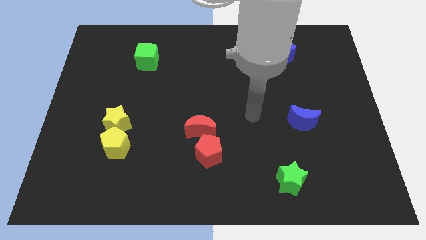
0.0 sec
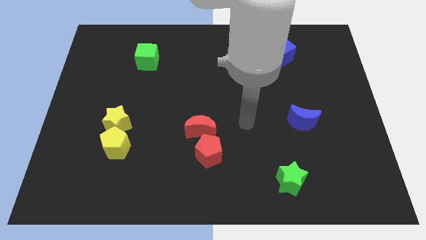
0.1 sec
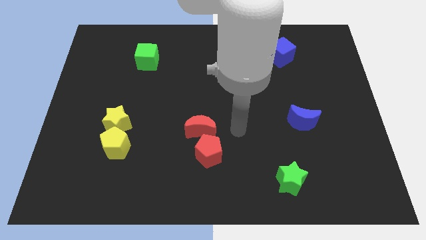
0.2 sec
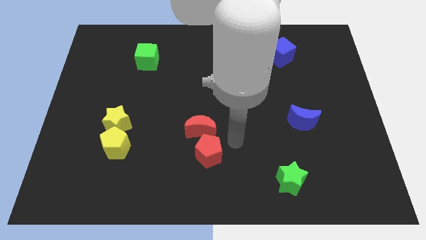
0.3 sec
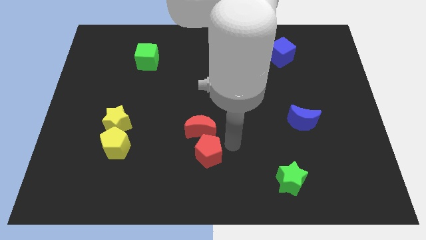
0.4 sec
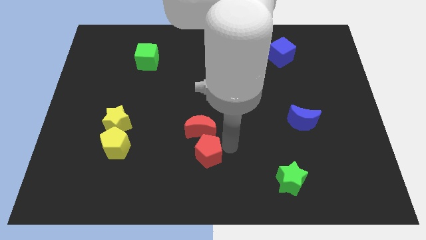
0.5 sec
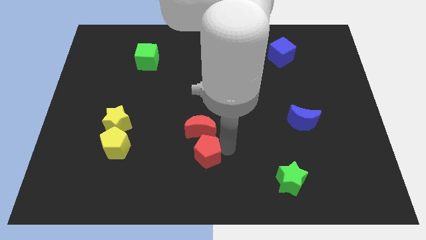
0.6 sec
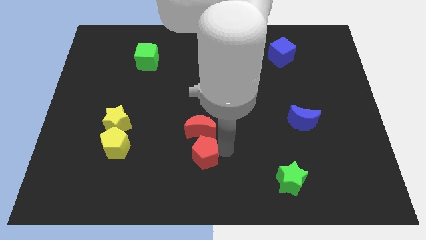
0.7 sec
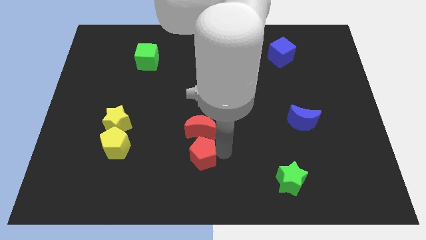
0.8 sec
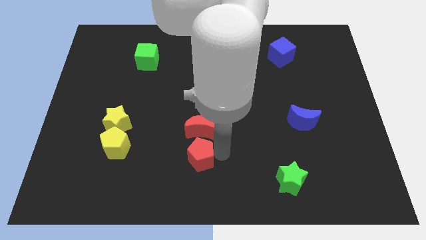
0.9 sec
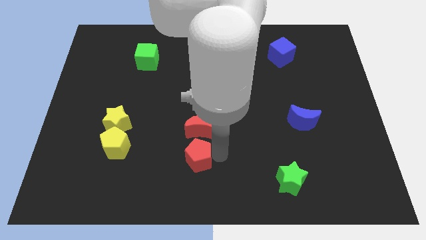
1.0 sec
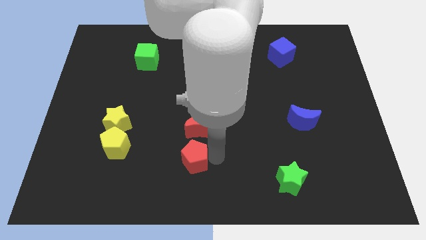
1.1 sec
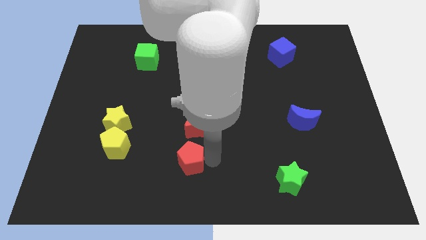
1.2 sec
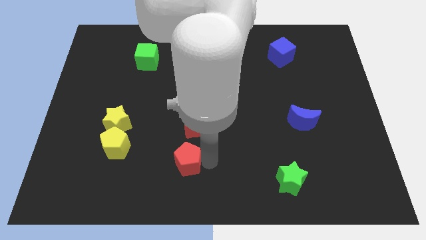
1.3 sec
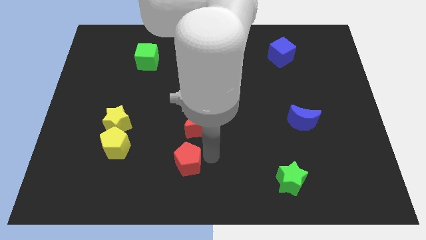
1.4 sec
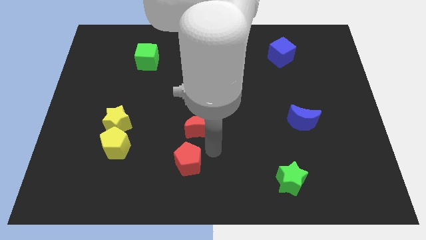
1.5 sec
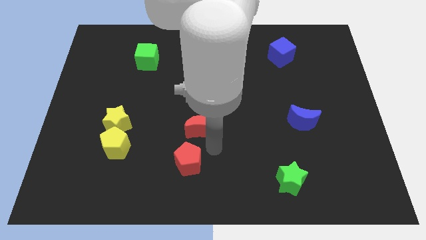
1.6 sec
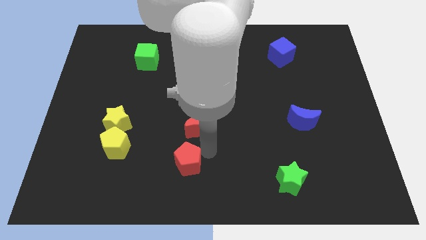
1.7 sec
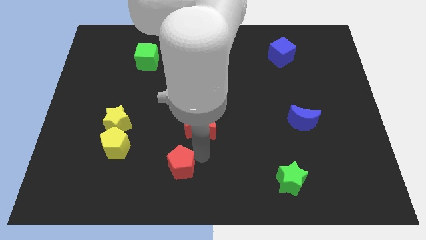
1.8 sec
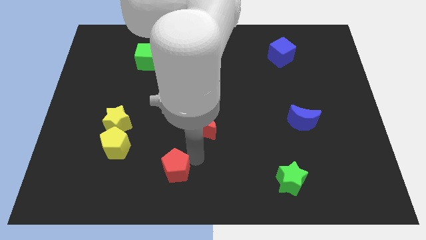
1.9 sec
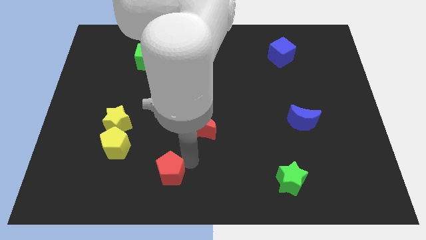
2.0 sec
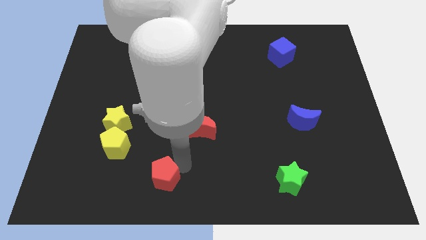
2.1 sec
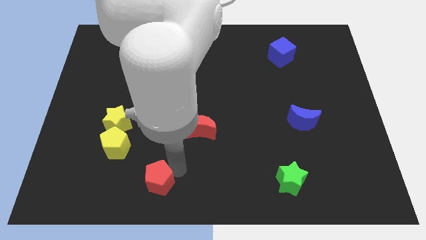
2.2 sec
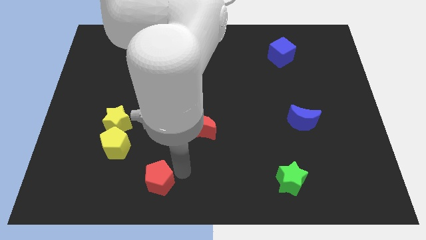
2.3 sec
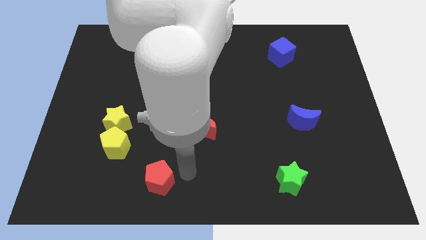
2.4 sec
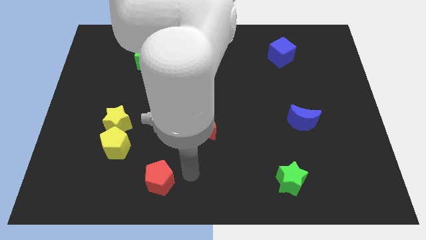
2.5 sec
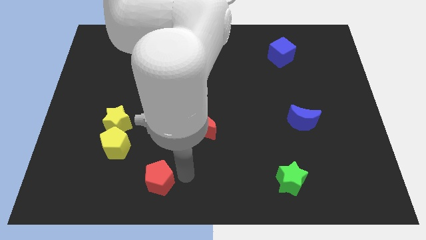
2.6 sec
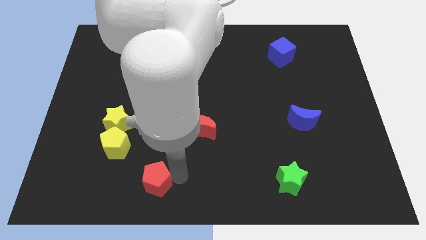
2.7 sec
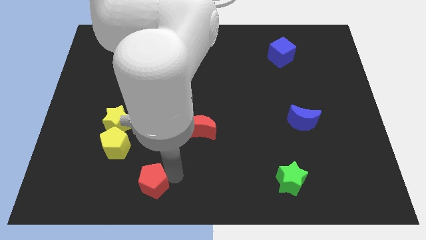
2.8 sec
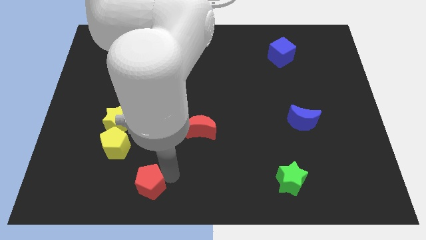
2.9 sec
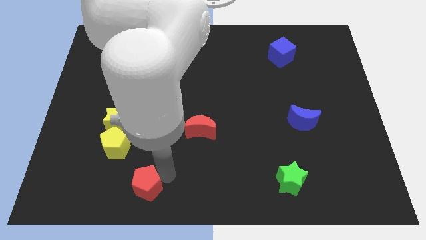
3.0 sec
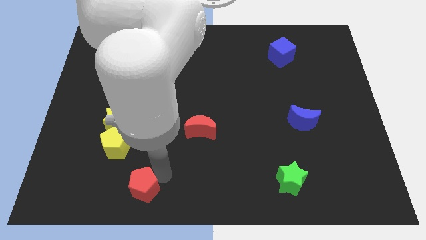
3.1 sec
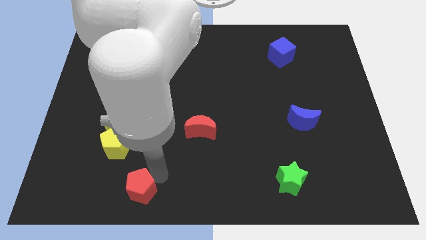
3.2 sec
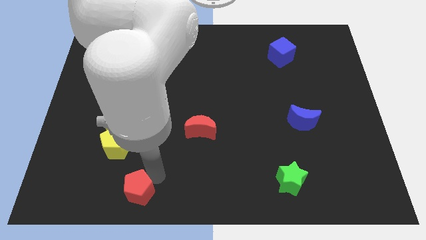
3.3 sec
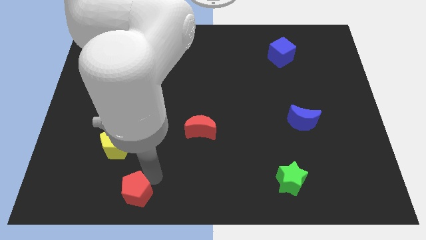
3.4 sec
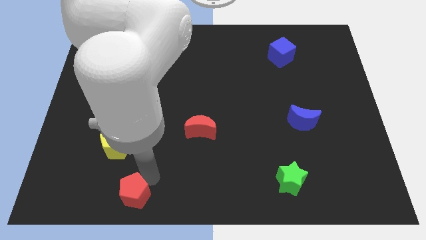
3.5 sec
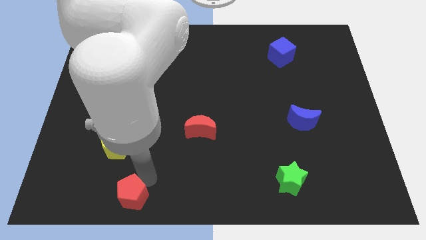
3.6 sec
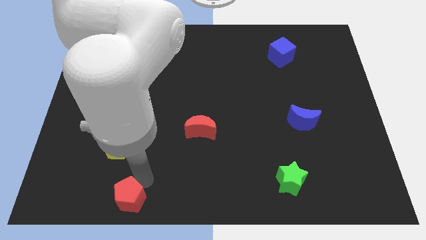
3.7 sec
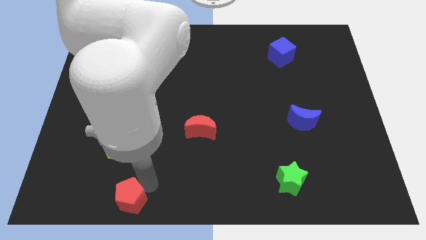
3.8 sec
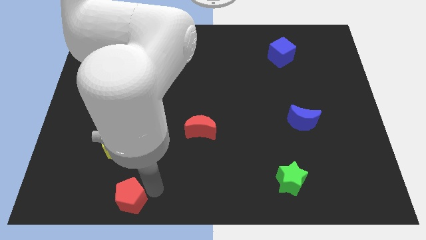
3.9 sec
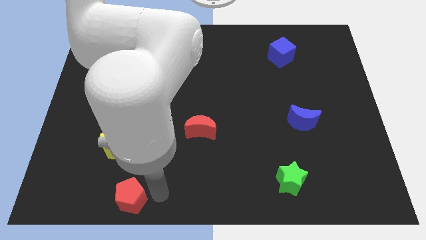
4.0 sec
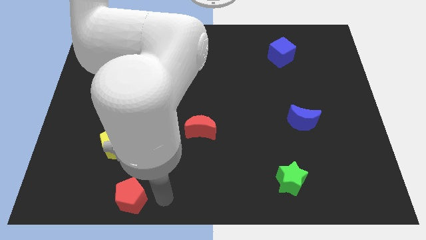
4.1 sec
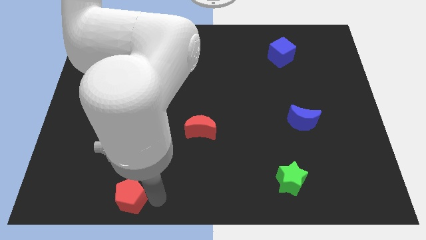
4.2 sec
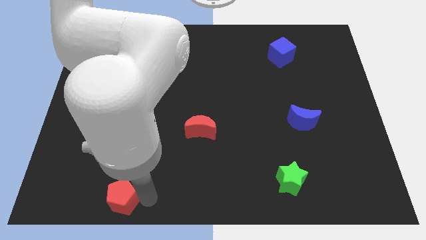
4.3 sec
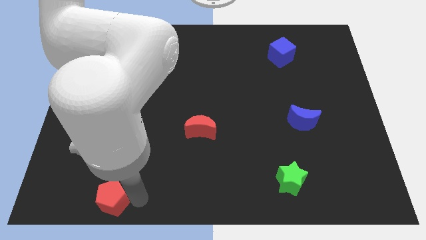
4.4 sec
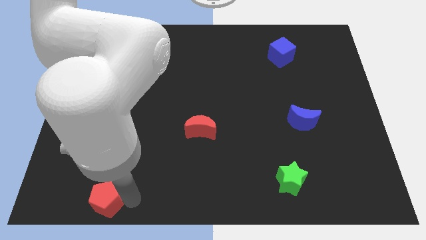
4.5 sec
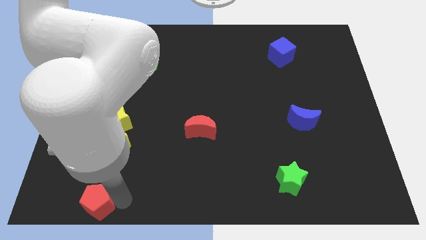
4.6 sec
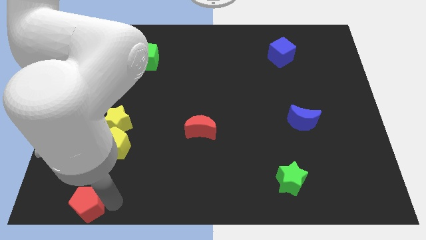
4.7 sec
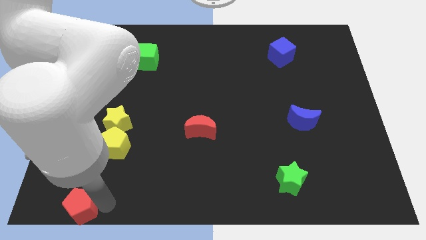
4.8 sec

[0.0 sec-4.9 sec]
move the red pentagon to the bottom left of the board

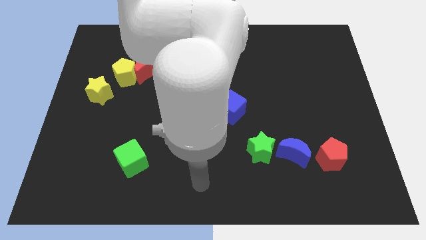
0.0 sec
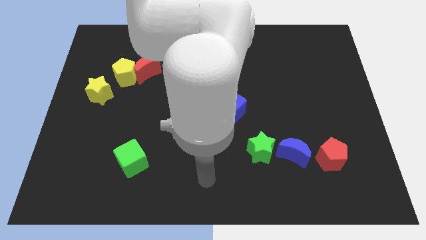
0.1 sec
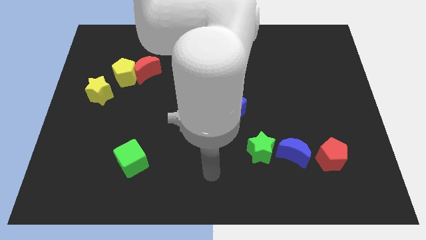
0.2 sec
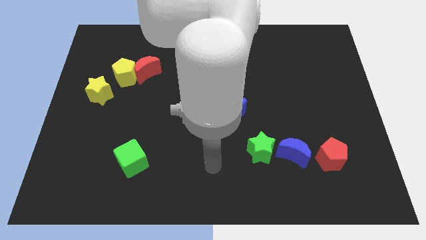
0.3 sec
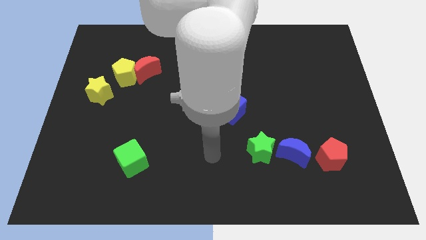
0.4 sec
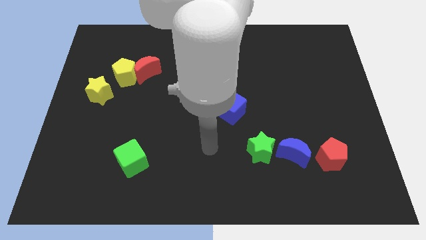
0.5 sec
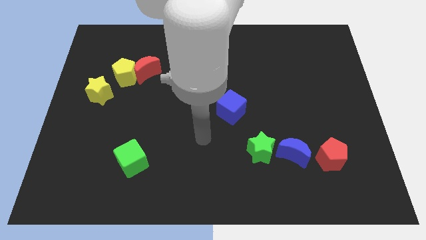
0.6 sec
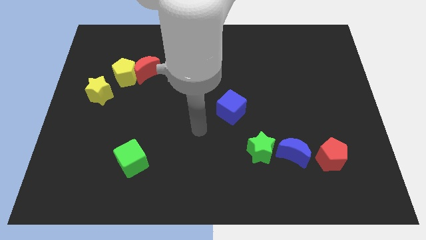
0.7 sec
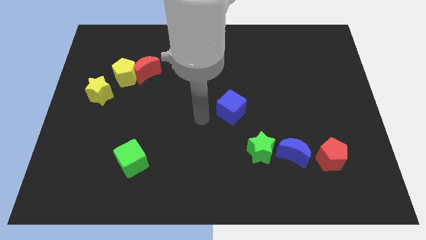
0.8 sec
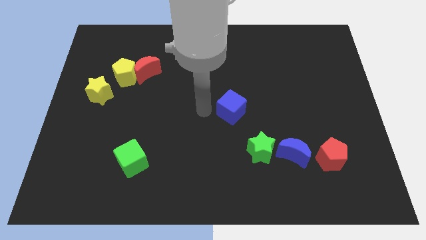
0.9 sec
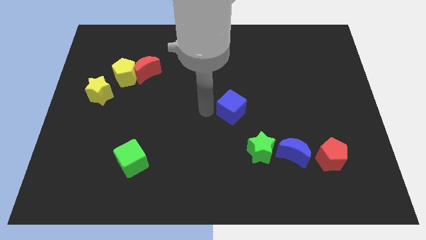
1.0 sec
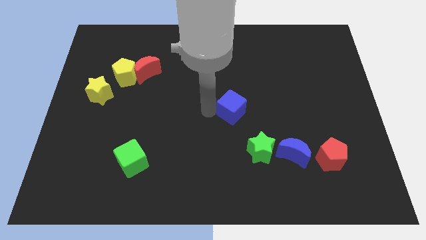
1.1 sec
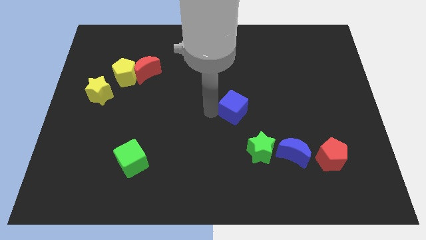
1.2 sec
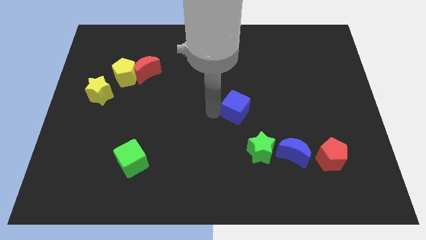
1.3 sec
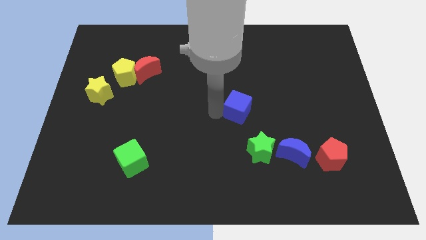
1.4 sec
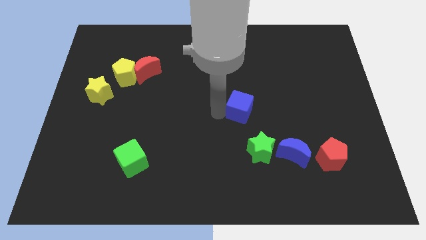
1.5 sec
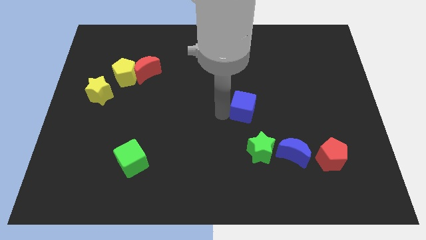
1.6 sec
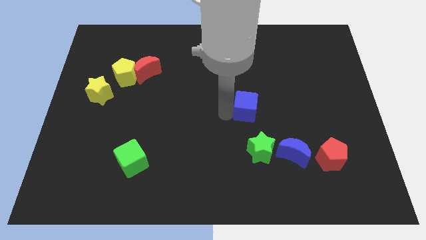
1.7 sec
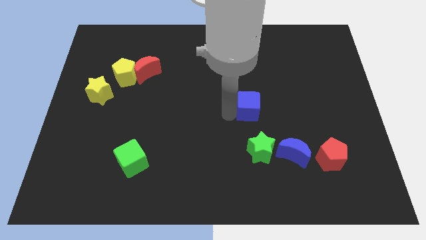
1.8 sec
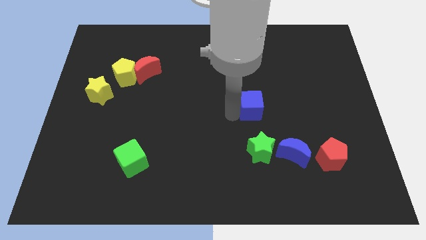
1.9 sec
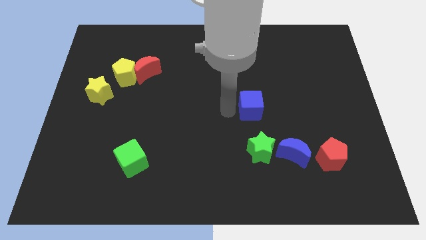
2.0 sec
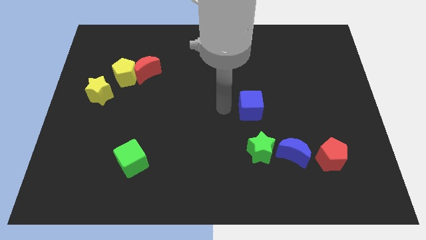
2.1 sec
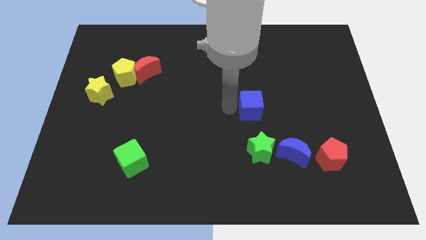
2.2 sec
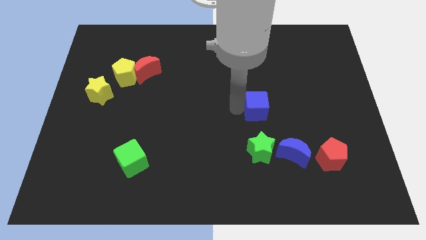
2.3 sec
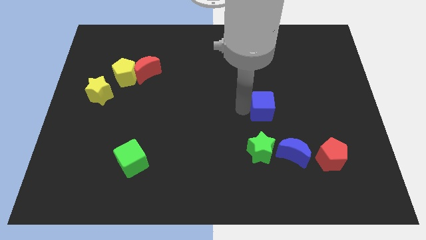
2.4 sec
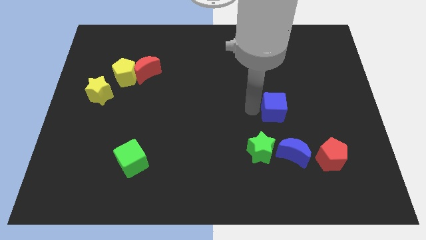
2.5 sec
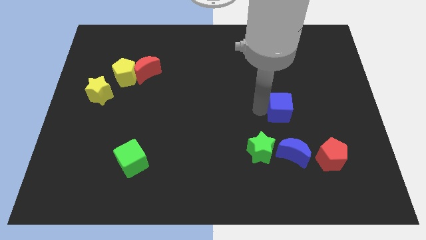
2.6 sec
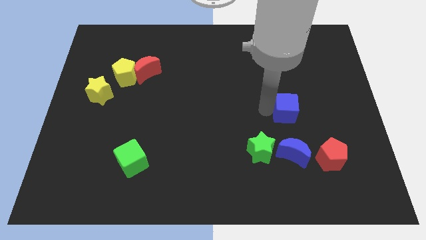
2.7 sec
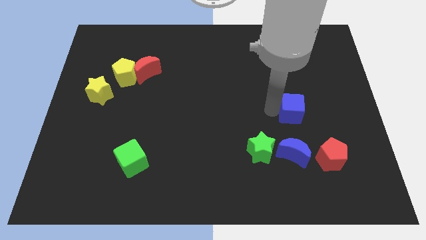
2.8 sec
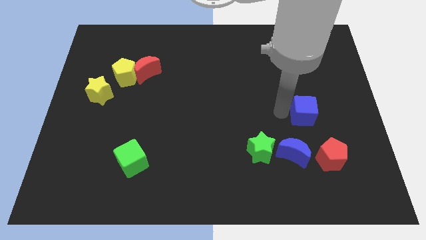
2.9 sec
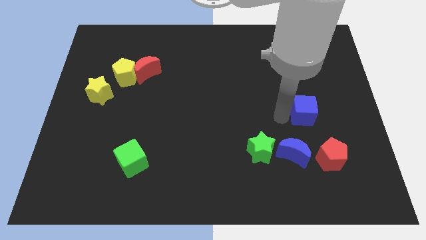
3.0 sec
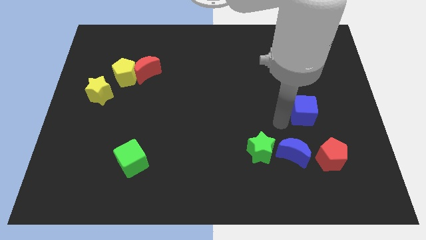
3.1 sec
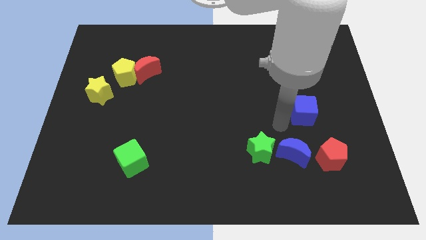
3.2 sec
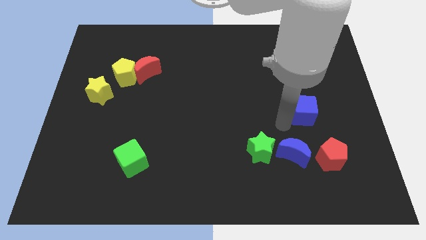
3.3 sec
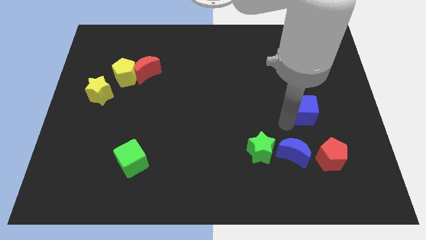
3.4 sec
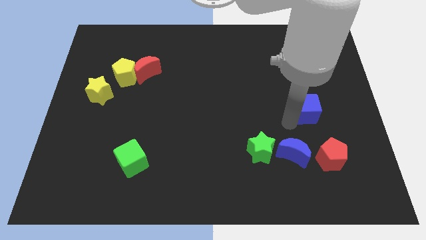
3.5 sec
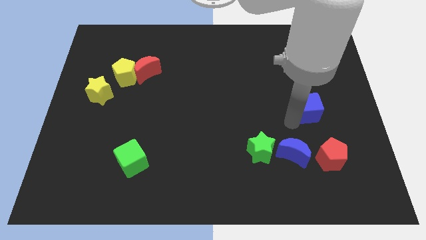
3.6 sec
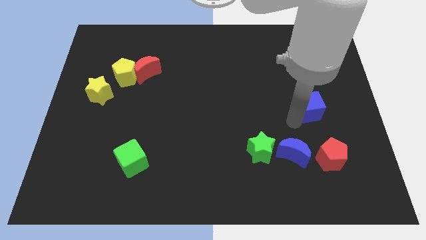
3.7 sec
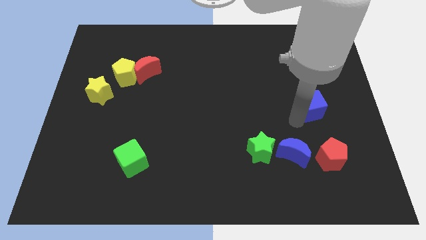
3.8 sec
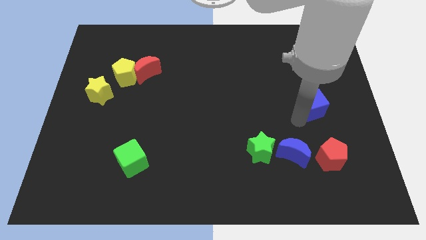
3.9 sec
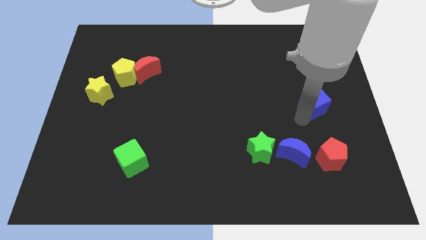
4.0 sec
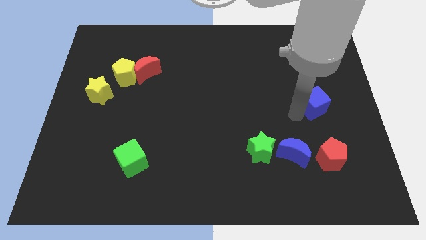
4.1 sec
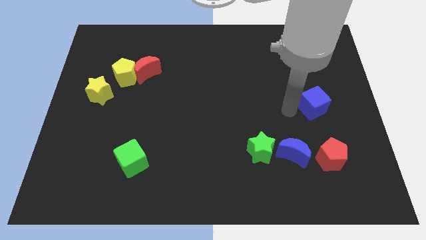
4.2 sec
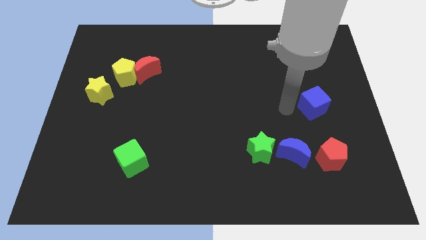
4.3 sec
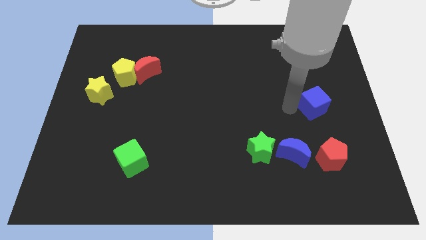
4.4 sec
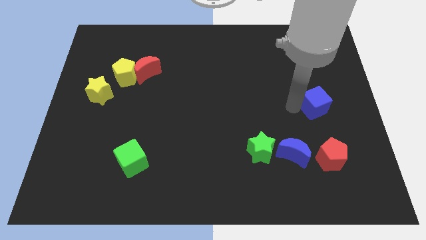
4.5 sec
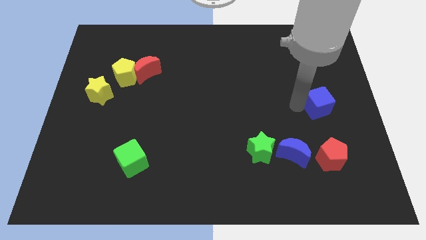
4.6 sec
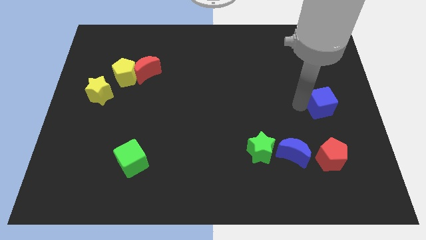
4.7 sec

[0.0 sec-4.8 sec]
put the blue cube to the center right
